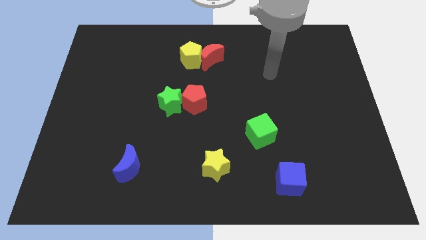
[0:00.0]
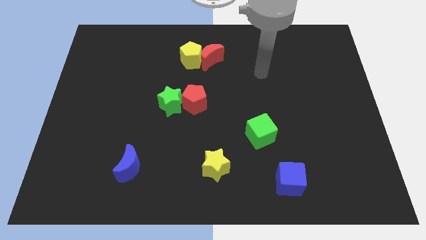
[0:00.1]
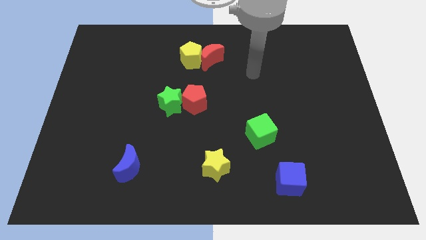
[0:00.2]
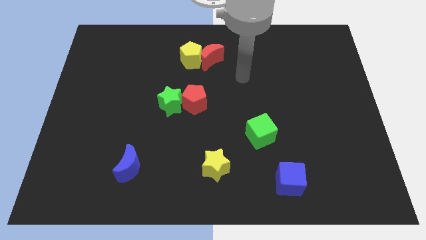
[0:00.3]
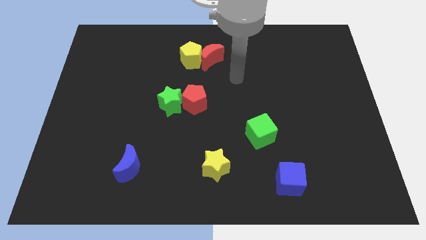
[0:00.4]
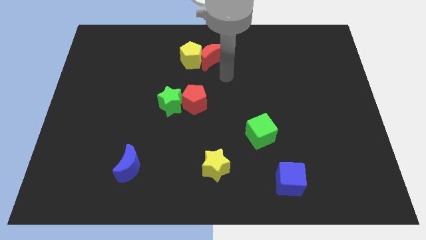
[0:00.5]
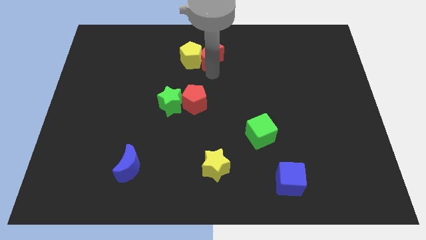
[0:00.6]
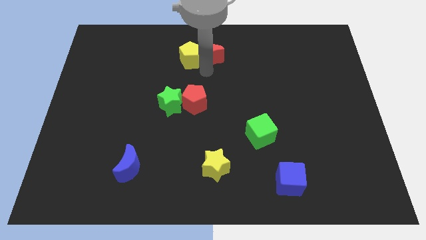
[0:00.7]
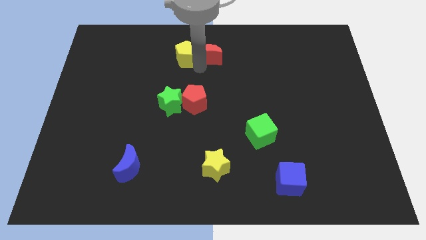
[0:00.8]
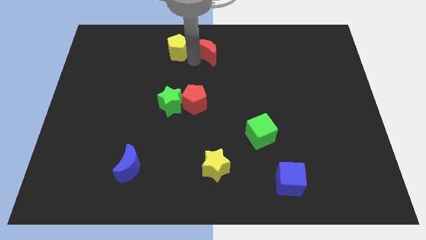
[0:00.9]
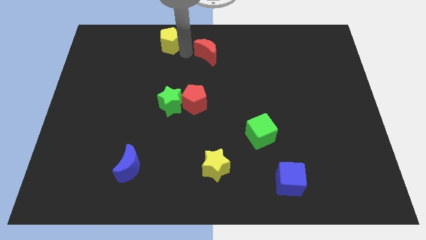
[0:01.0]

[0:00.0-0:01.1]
separate the red moon from the yellow pentagon

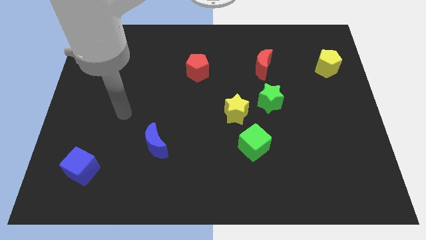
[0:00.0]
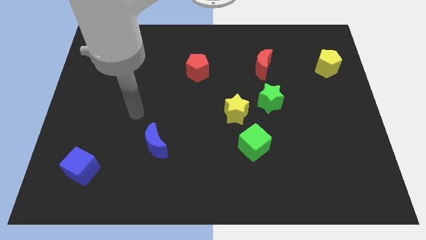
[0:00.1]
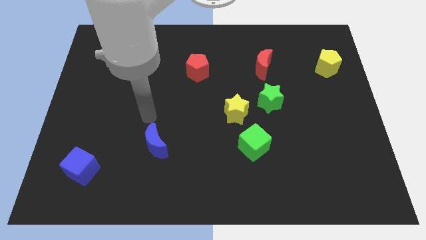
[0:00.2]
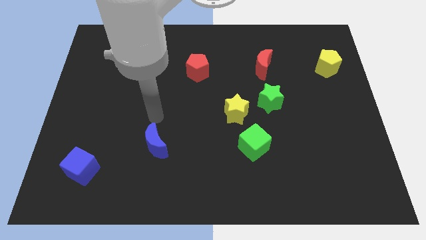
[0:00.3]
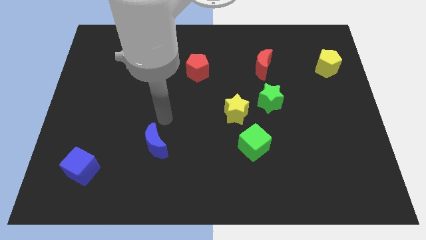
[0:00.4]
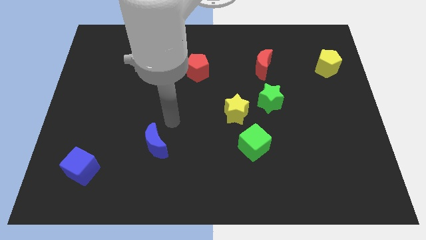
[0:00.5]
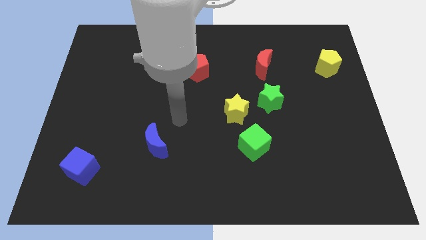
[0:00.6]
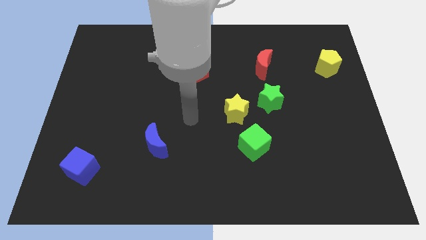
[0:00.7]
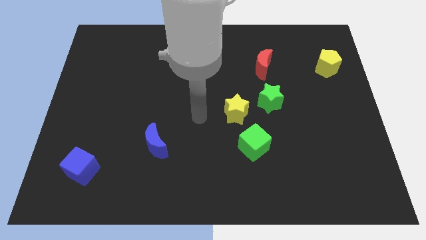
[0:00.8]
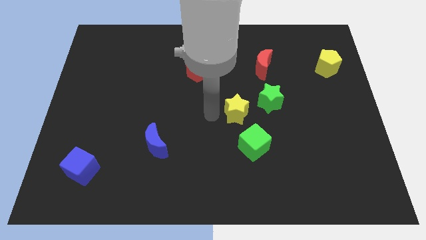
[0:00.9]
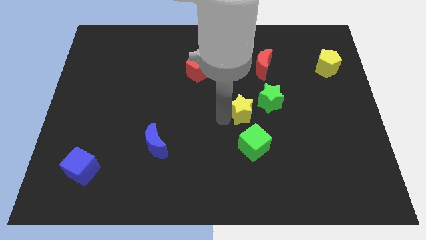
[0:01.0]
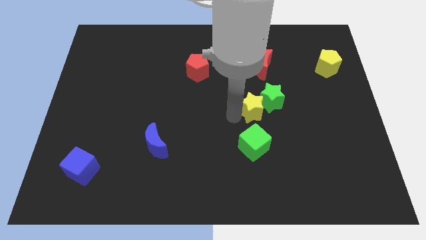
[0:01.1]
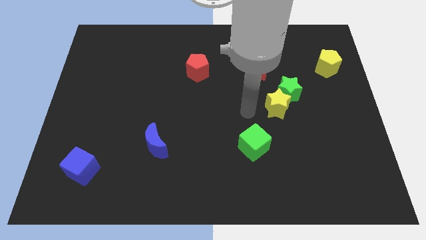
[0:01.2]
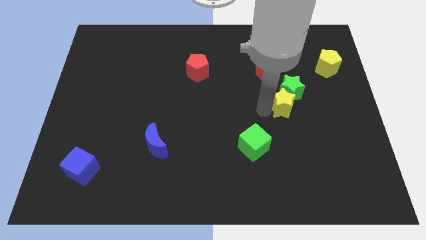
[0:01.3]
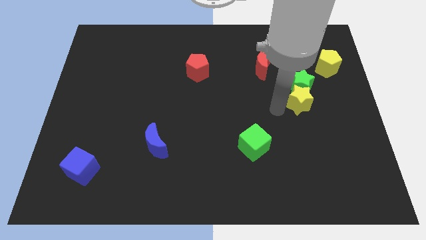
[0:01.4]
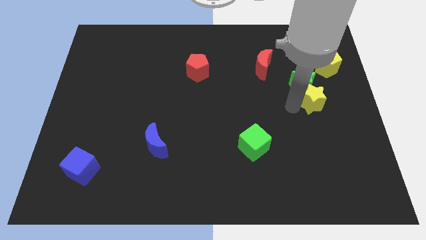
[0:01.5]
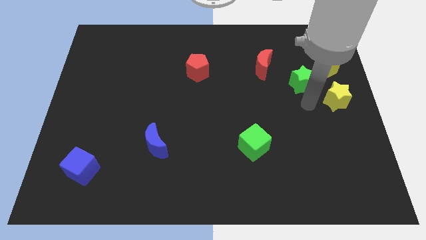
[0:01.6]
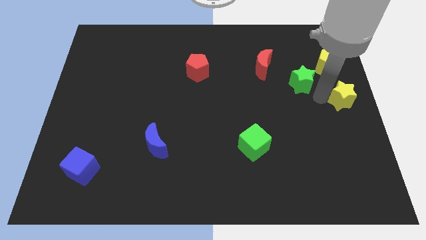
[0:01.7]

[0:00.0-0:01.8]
move the green star away from the yellow star

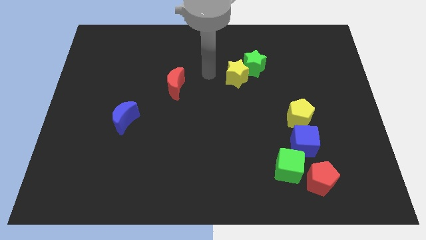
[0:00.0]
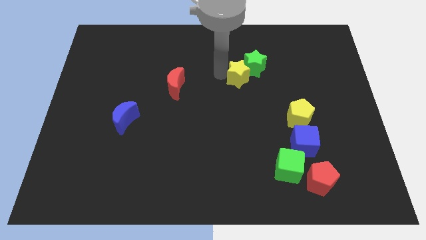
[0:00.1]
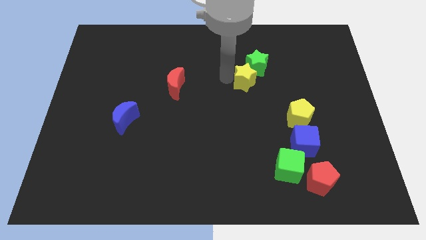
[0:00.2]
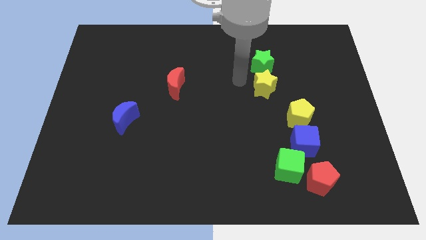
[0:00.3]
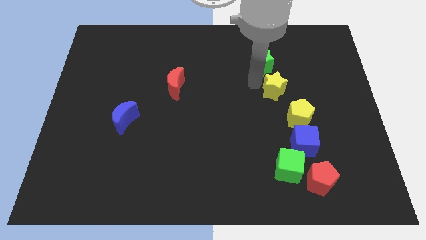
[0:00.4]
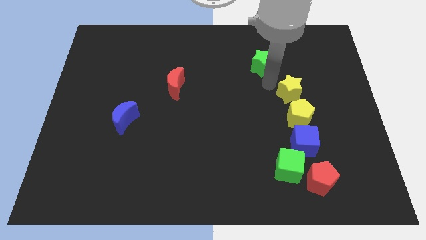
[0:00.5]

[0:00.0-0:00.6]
separate the green star from the yellow star

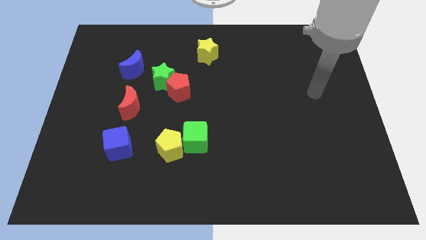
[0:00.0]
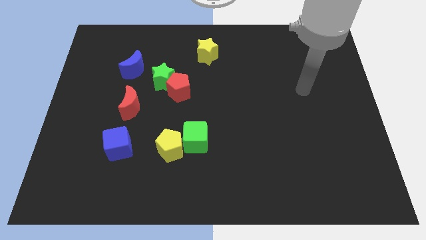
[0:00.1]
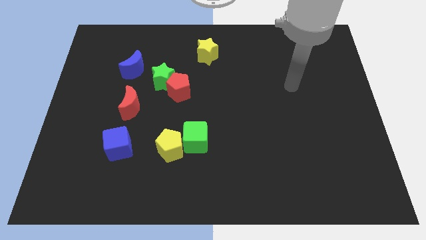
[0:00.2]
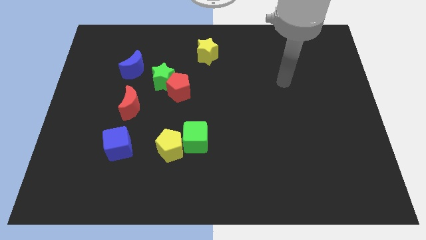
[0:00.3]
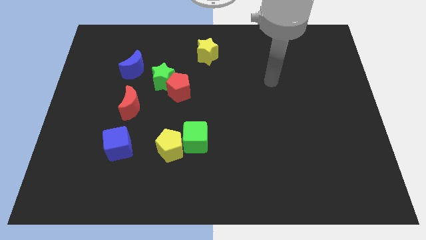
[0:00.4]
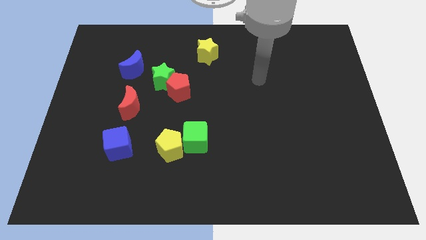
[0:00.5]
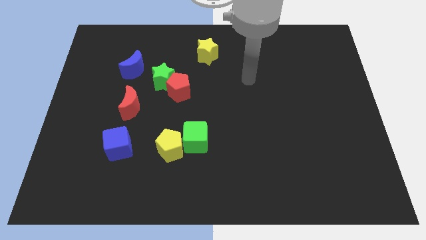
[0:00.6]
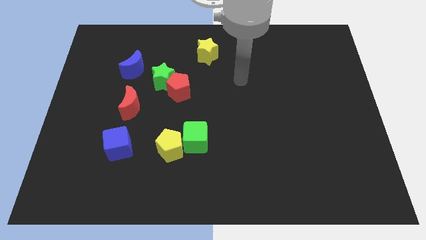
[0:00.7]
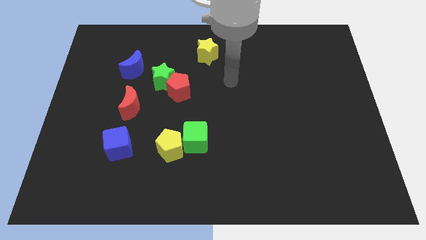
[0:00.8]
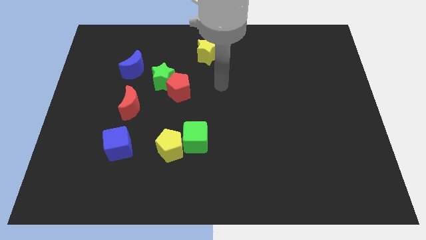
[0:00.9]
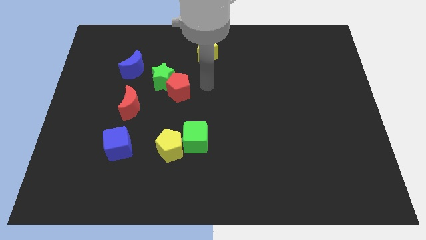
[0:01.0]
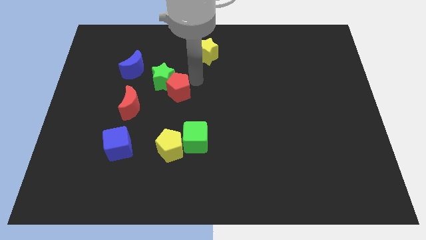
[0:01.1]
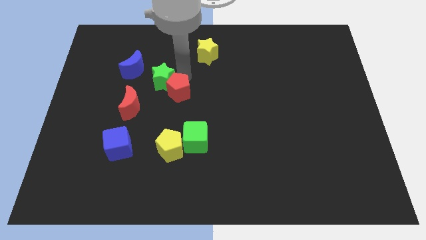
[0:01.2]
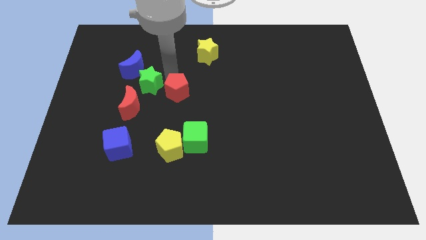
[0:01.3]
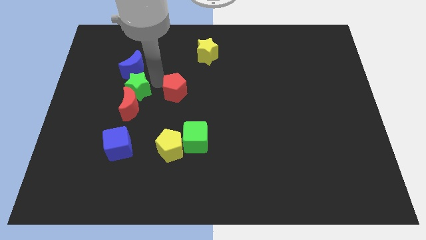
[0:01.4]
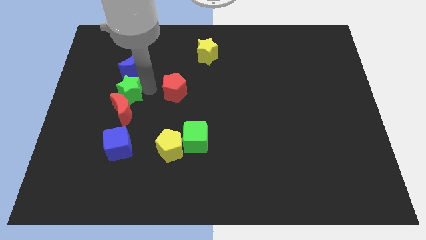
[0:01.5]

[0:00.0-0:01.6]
move the red pentagon away from the green star

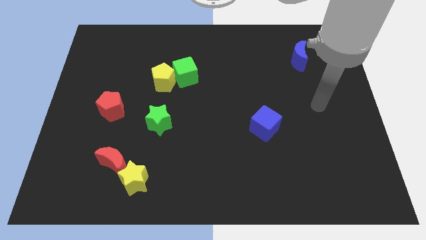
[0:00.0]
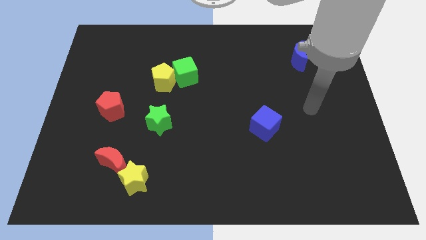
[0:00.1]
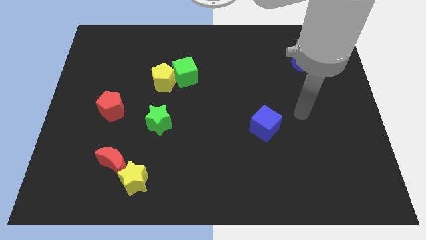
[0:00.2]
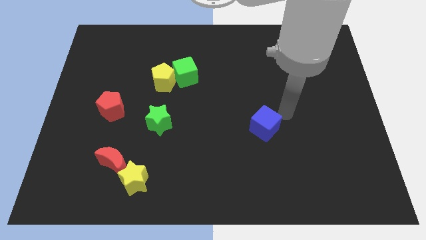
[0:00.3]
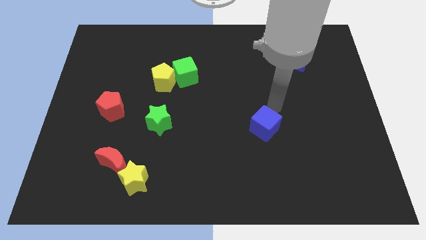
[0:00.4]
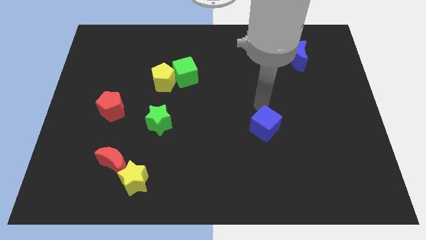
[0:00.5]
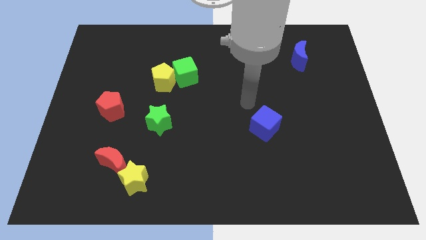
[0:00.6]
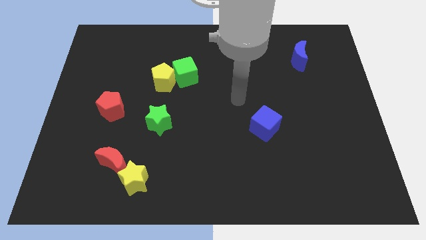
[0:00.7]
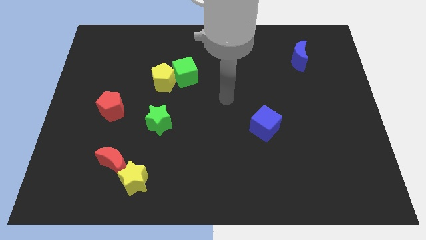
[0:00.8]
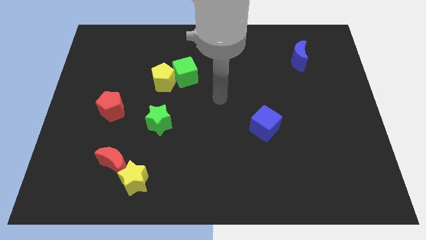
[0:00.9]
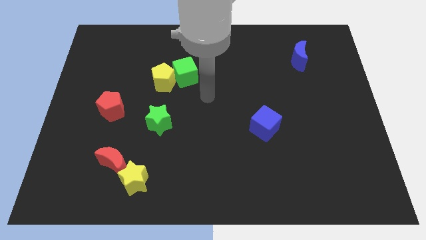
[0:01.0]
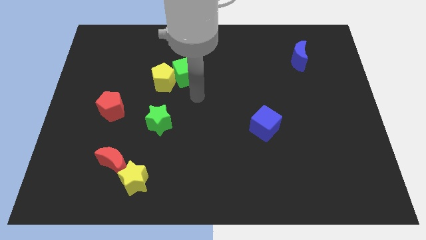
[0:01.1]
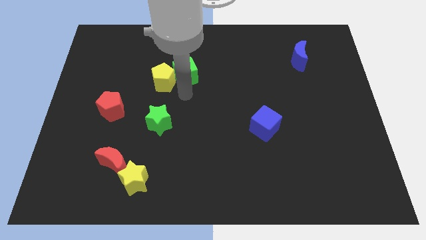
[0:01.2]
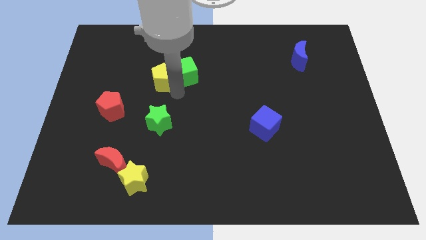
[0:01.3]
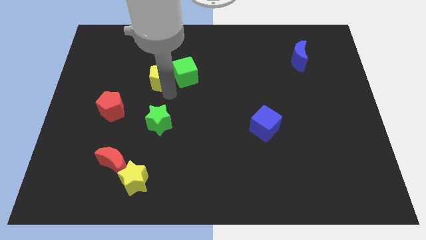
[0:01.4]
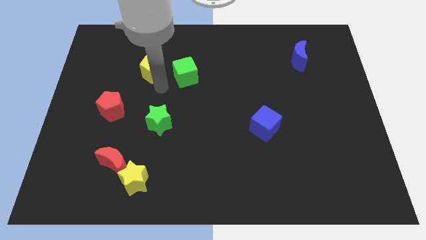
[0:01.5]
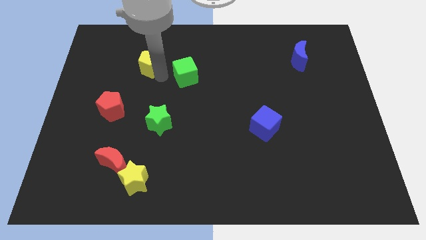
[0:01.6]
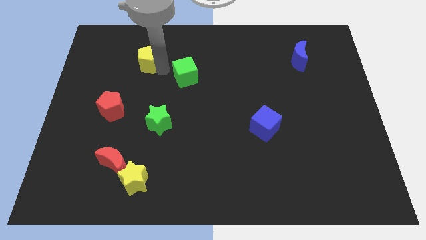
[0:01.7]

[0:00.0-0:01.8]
pull the green cube apart from the yellow pentagon

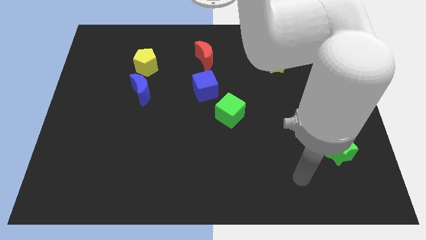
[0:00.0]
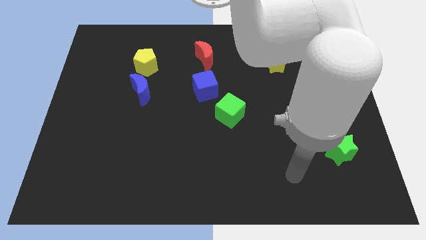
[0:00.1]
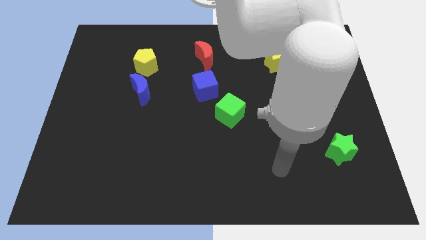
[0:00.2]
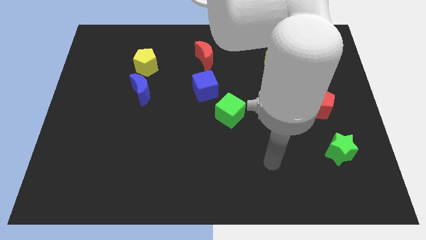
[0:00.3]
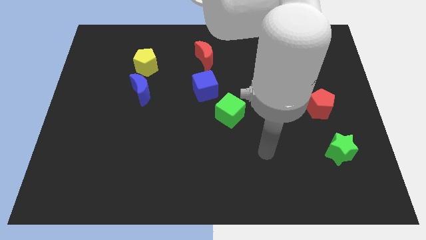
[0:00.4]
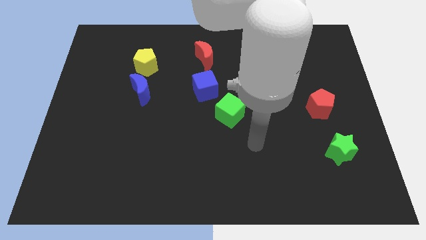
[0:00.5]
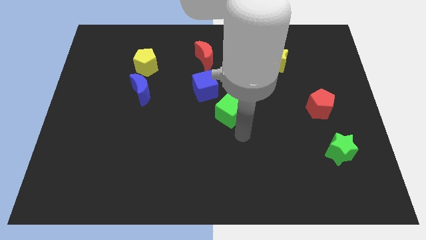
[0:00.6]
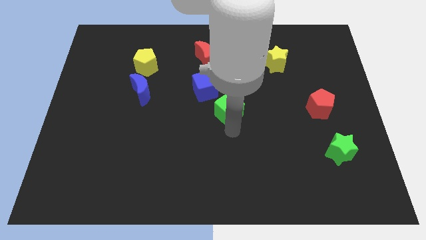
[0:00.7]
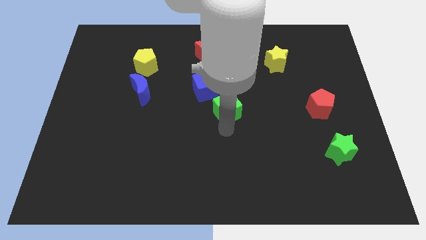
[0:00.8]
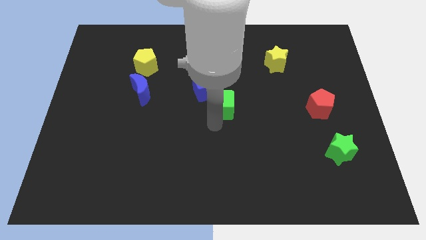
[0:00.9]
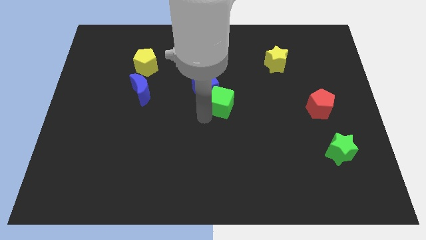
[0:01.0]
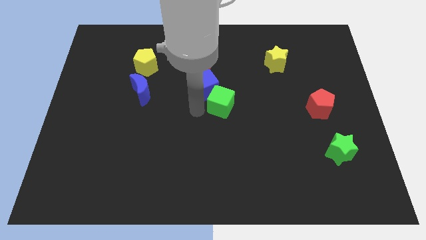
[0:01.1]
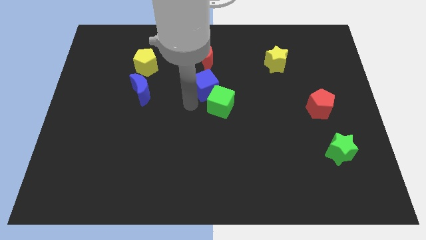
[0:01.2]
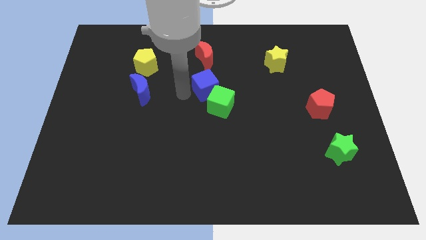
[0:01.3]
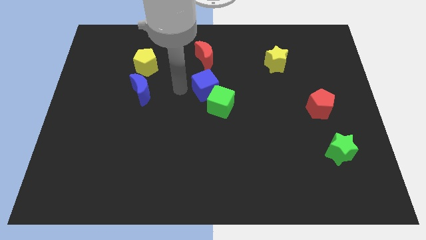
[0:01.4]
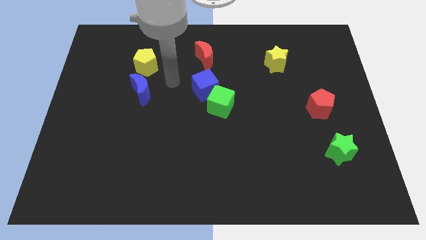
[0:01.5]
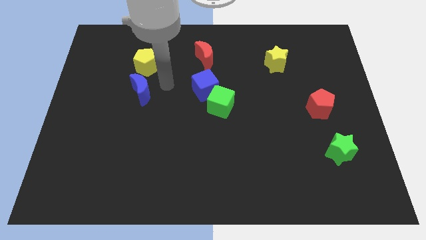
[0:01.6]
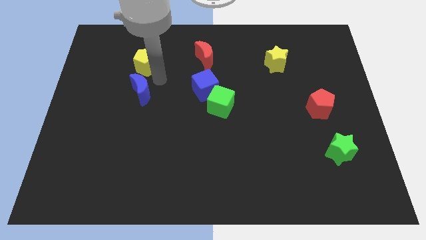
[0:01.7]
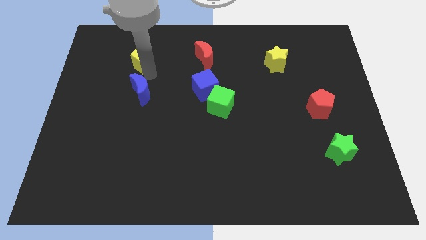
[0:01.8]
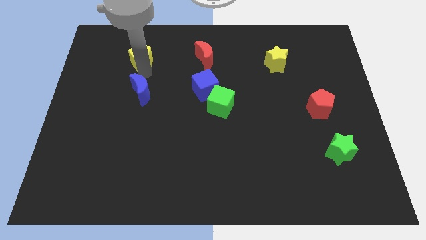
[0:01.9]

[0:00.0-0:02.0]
pull the blue moon apart from the yellow pentagon

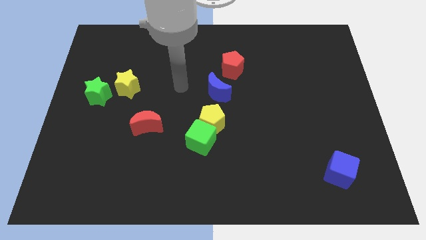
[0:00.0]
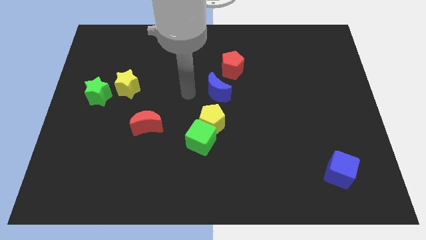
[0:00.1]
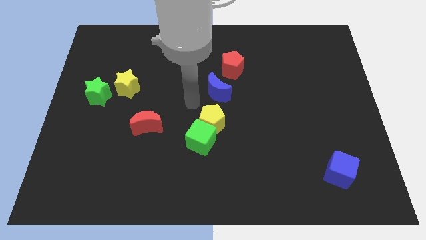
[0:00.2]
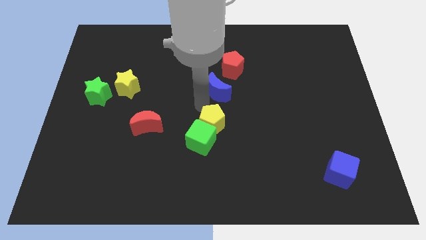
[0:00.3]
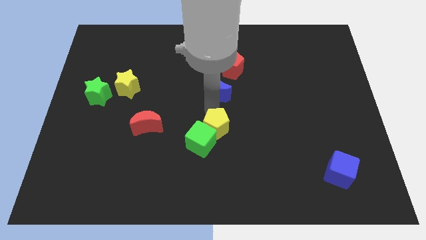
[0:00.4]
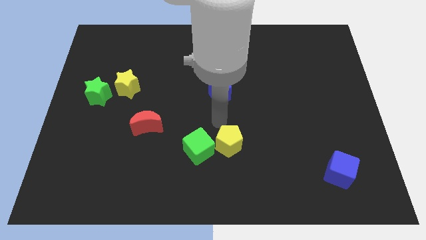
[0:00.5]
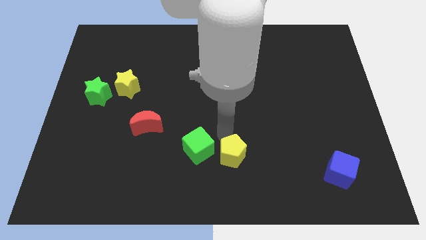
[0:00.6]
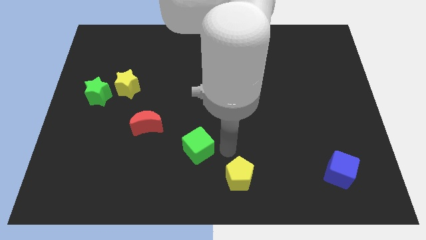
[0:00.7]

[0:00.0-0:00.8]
separate the green cube from the yellow pentagon
